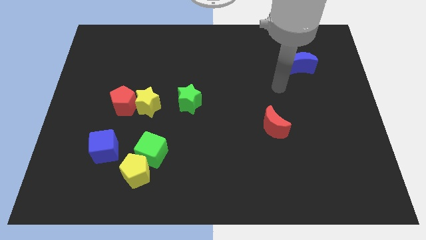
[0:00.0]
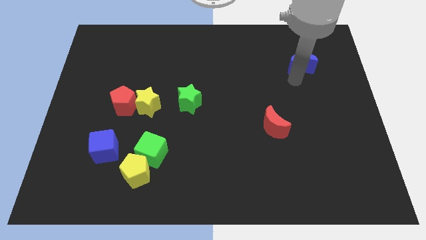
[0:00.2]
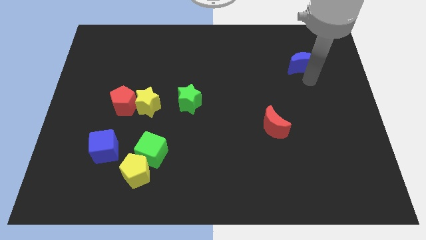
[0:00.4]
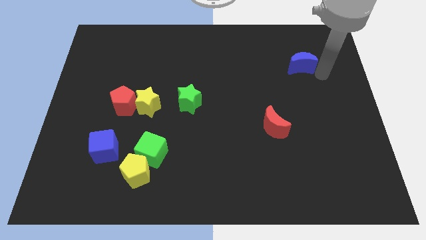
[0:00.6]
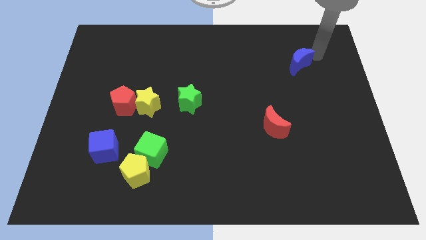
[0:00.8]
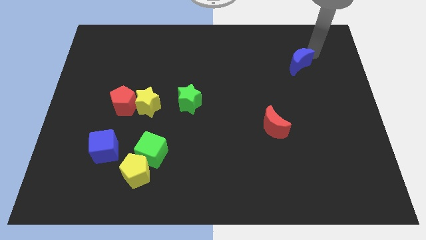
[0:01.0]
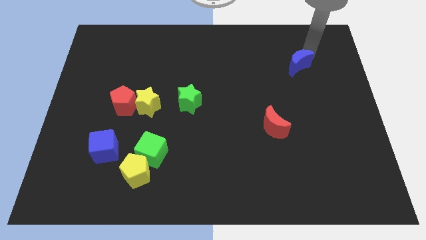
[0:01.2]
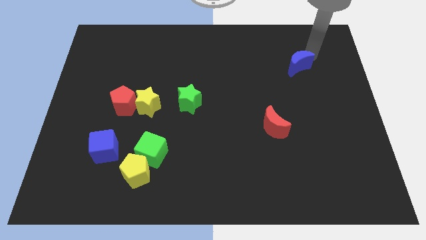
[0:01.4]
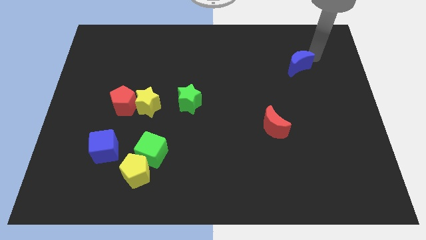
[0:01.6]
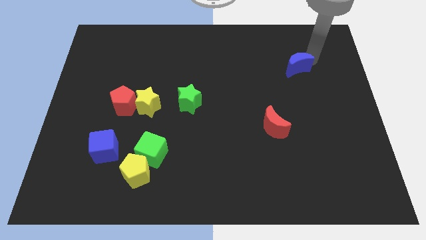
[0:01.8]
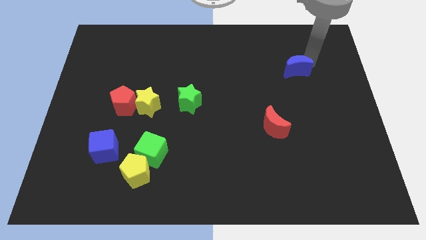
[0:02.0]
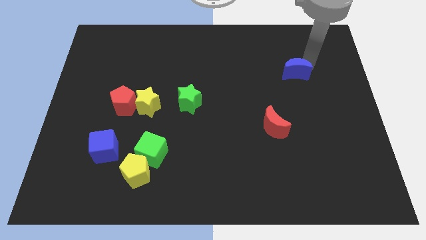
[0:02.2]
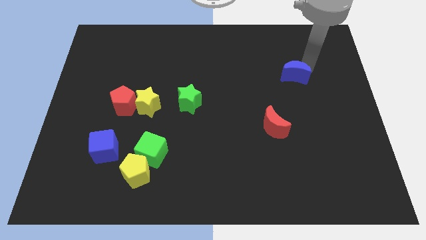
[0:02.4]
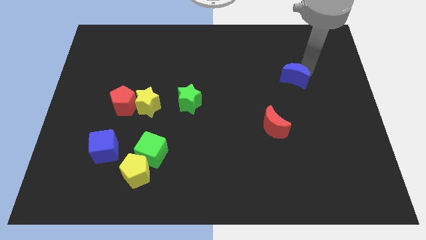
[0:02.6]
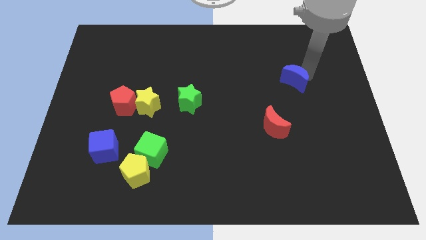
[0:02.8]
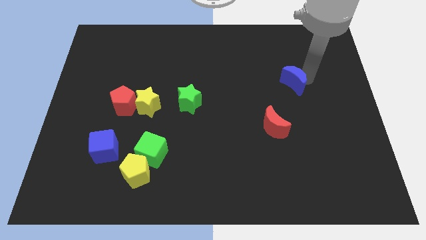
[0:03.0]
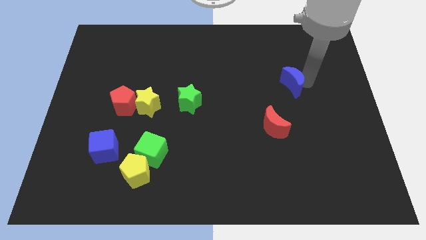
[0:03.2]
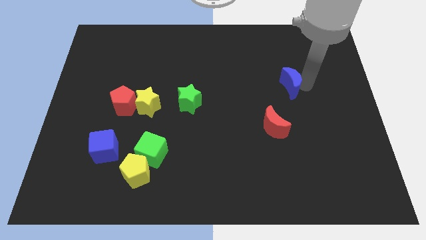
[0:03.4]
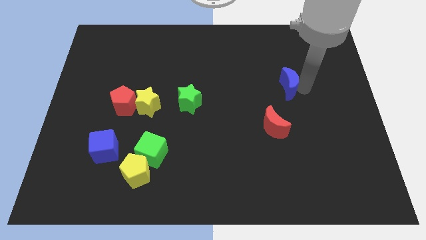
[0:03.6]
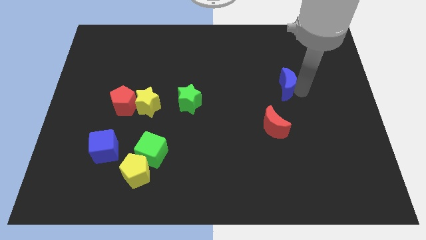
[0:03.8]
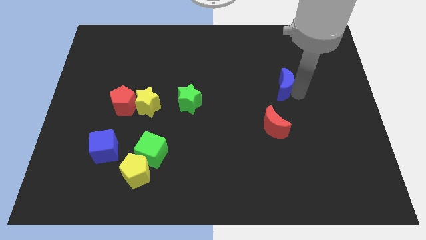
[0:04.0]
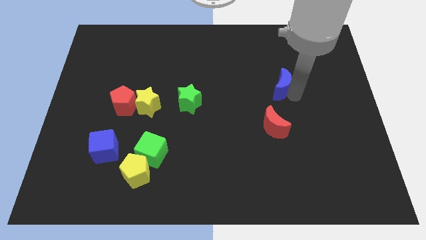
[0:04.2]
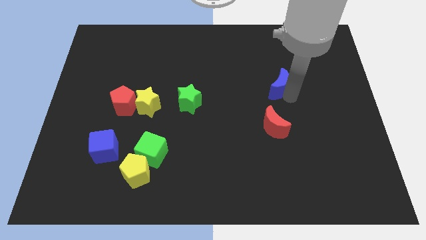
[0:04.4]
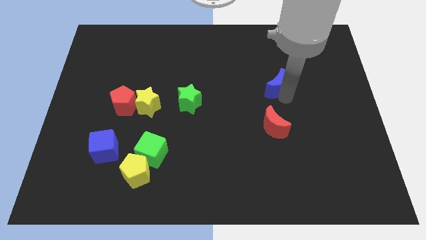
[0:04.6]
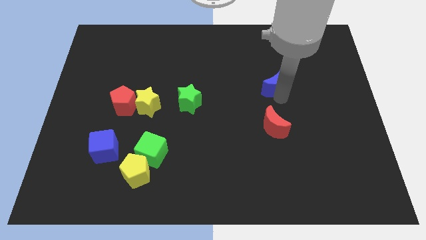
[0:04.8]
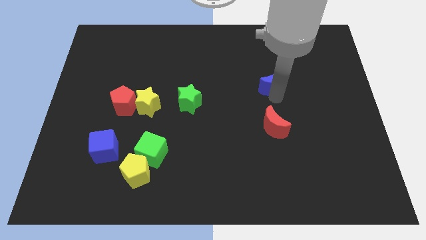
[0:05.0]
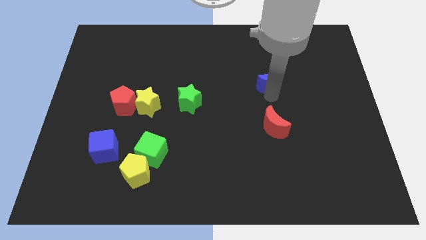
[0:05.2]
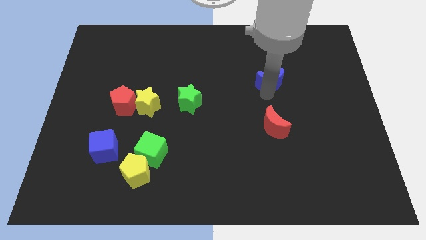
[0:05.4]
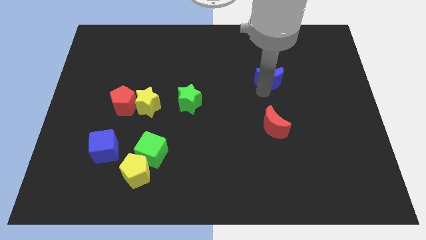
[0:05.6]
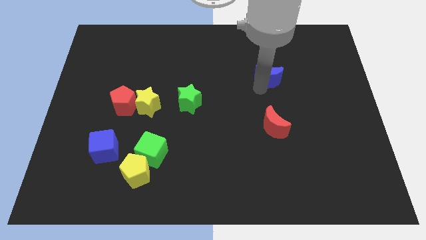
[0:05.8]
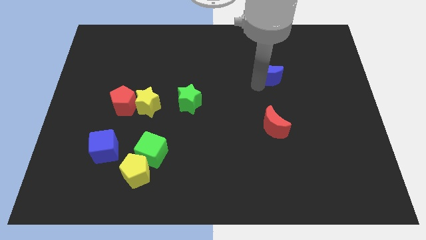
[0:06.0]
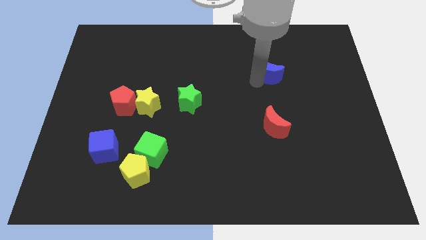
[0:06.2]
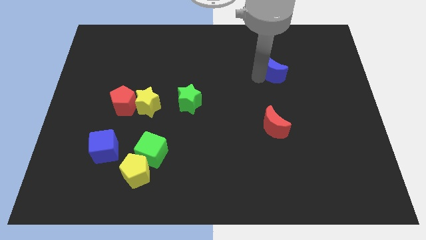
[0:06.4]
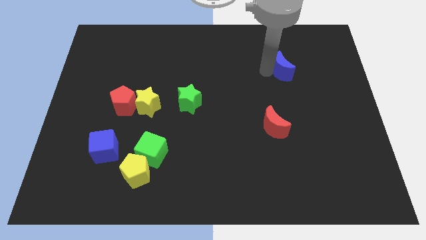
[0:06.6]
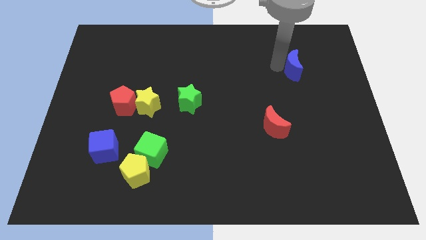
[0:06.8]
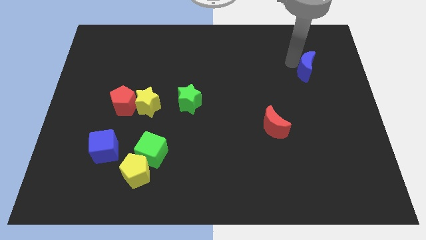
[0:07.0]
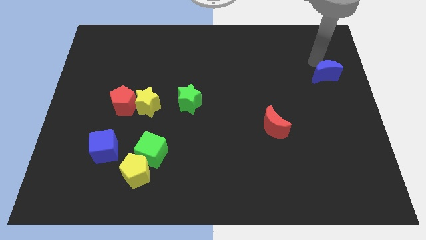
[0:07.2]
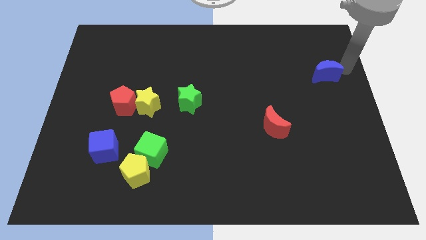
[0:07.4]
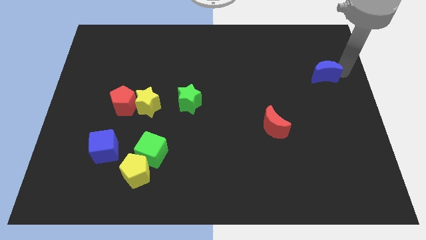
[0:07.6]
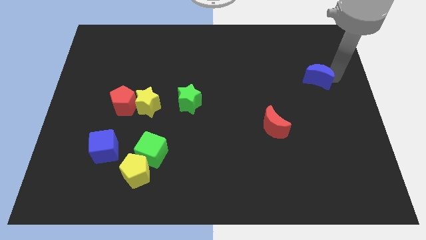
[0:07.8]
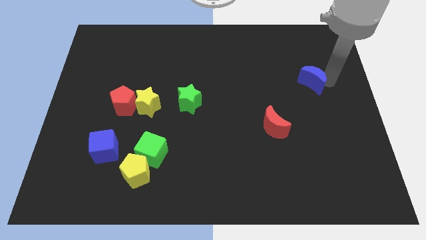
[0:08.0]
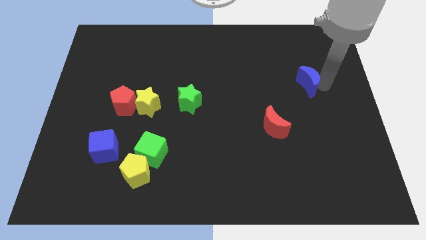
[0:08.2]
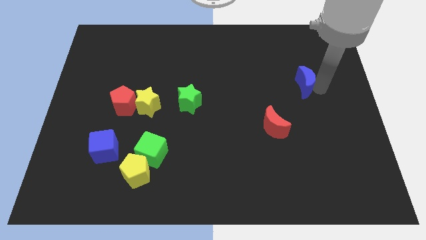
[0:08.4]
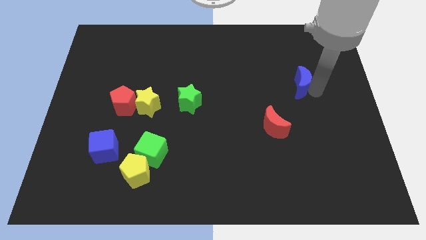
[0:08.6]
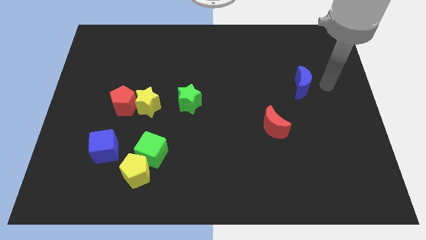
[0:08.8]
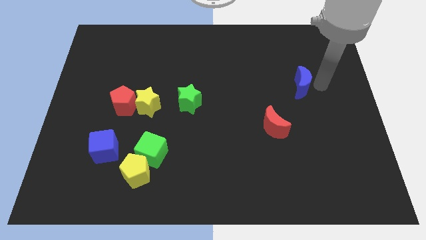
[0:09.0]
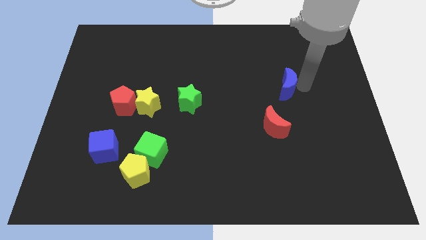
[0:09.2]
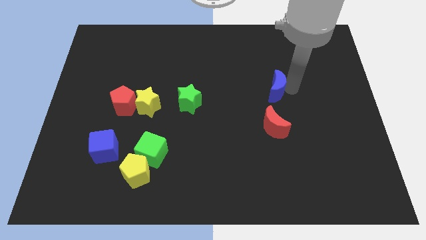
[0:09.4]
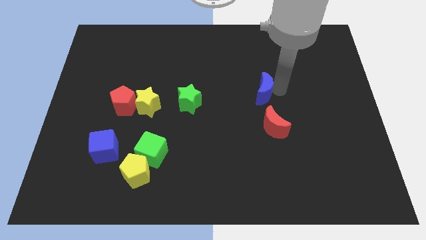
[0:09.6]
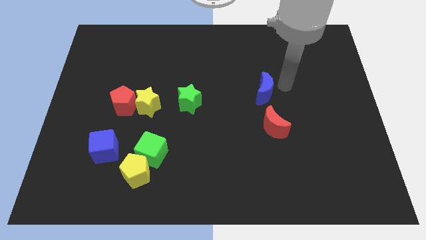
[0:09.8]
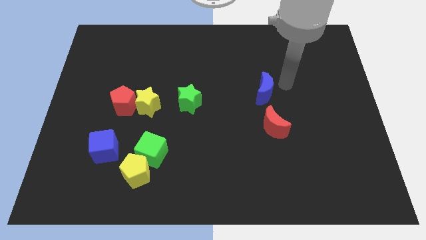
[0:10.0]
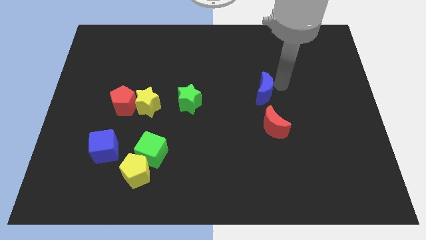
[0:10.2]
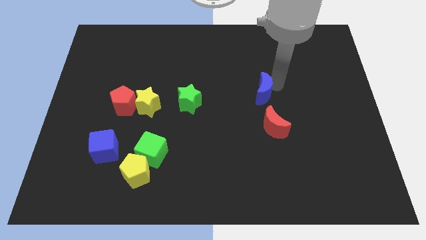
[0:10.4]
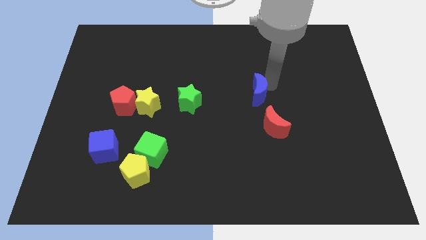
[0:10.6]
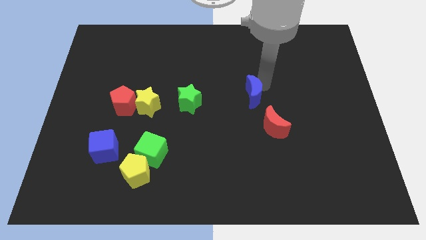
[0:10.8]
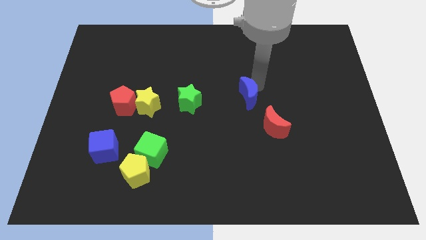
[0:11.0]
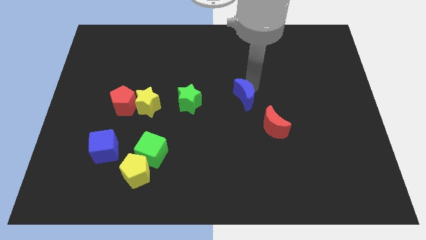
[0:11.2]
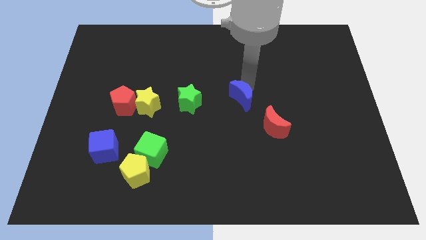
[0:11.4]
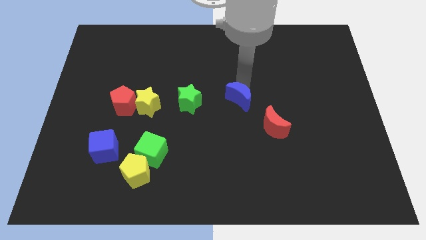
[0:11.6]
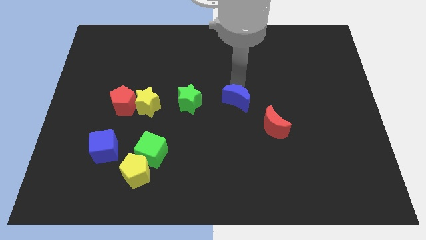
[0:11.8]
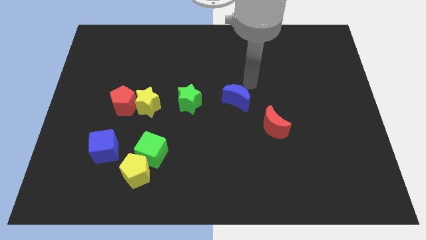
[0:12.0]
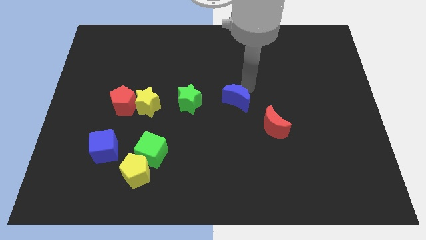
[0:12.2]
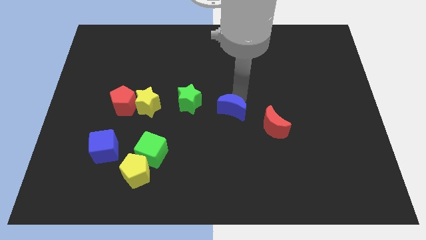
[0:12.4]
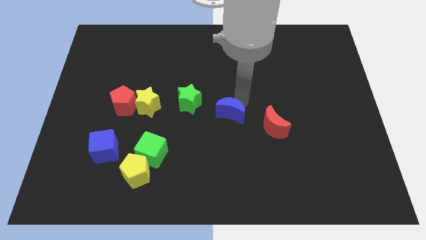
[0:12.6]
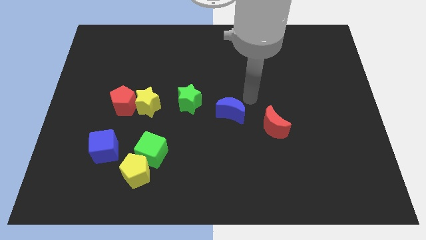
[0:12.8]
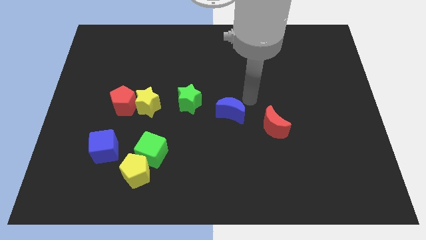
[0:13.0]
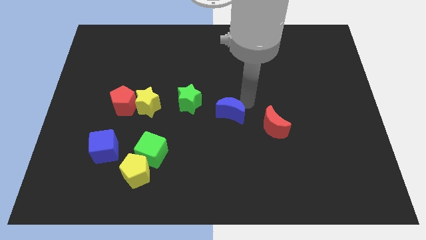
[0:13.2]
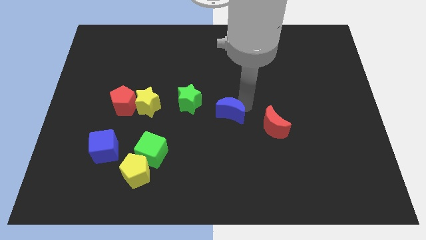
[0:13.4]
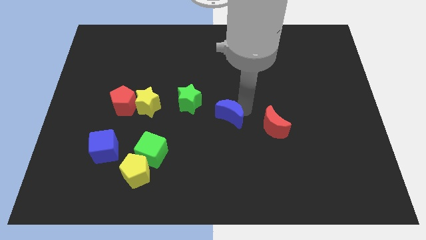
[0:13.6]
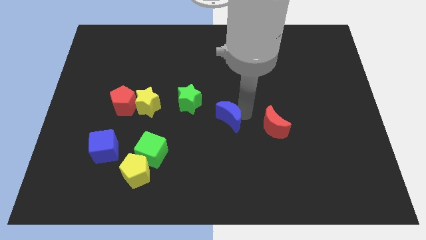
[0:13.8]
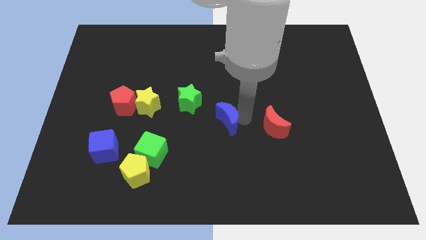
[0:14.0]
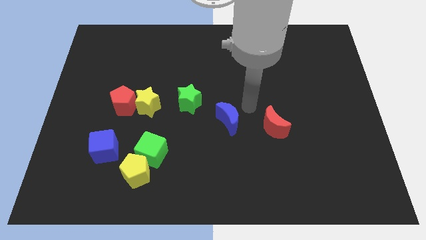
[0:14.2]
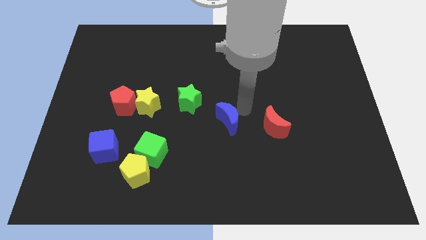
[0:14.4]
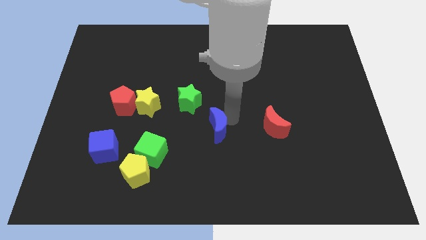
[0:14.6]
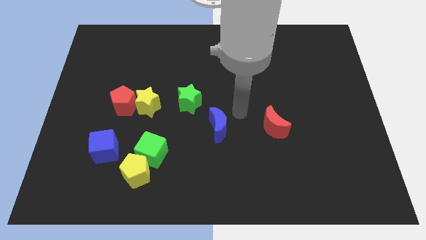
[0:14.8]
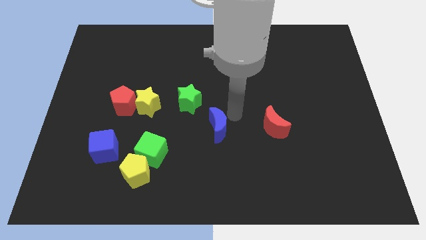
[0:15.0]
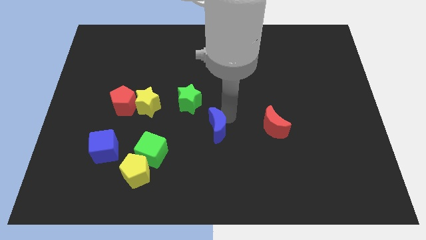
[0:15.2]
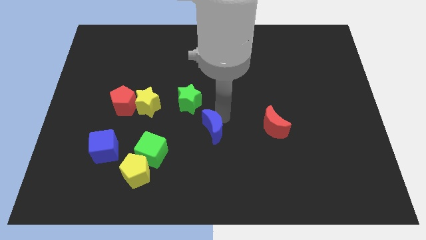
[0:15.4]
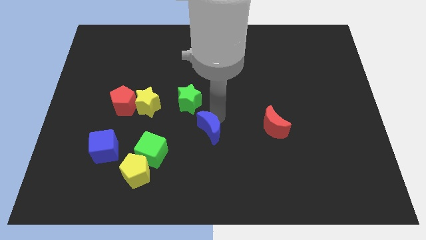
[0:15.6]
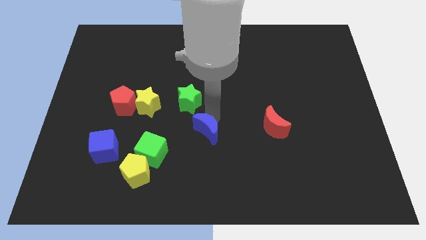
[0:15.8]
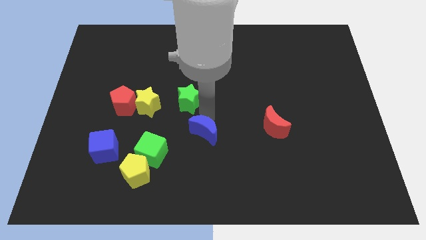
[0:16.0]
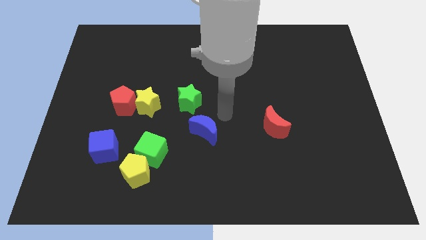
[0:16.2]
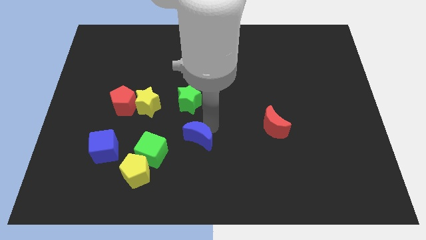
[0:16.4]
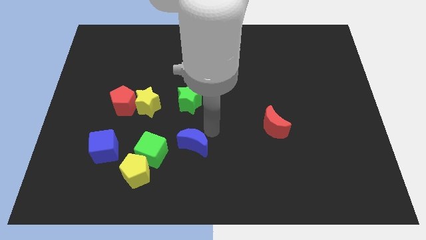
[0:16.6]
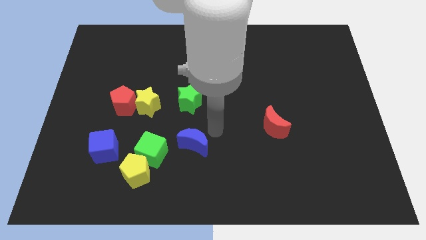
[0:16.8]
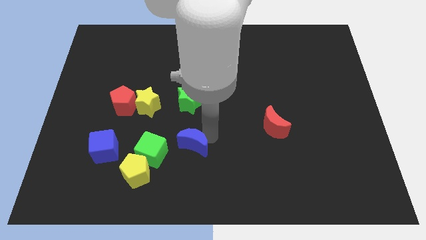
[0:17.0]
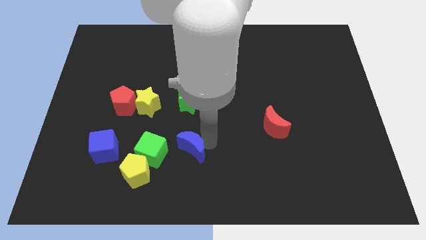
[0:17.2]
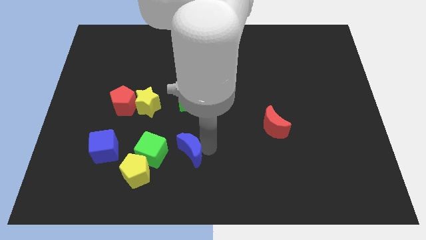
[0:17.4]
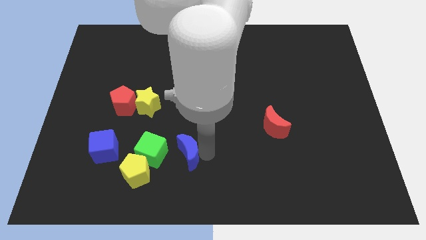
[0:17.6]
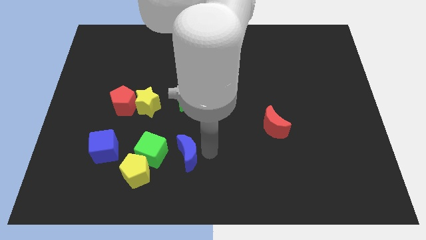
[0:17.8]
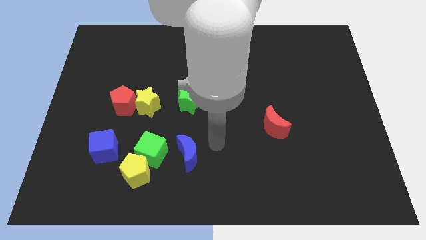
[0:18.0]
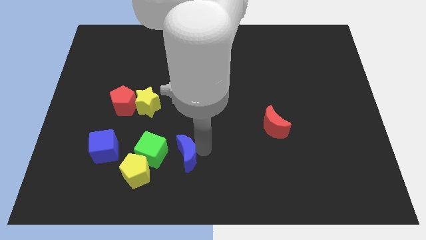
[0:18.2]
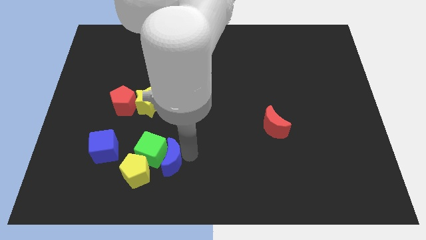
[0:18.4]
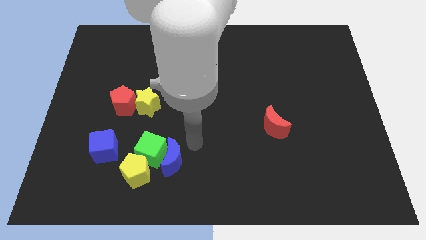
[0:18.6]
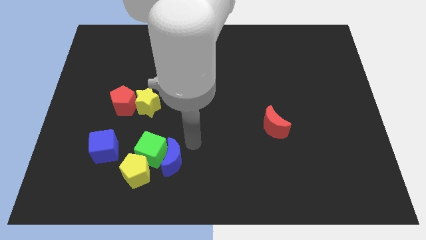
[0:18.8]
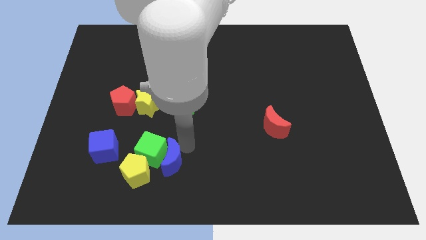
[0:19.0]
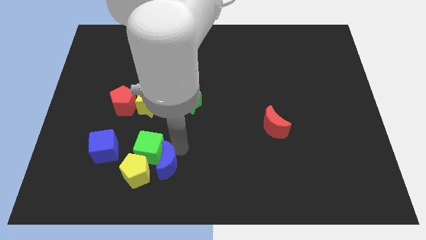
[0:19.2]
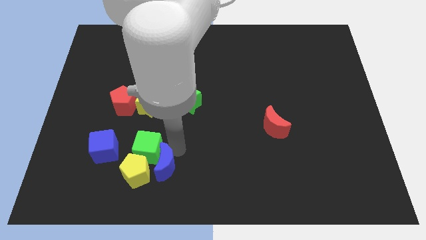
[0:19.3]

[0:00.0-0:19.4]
put the blue moon to the yellow pentagon
